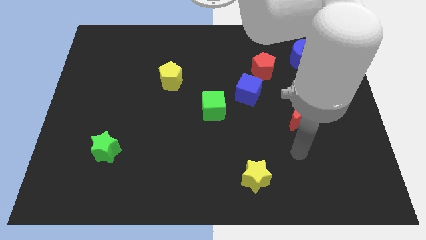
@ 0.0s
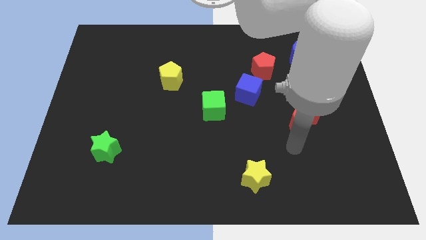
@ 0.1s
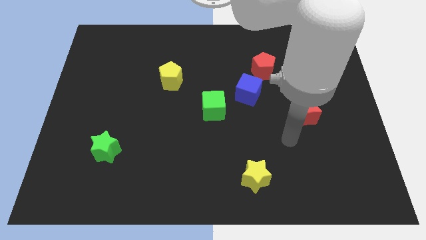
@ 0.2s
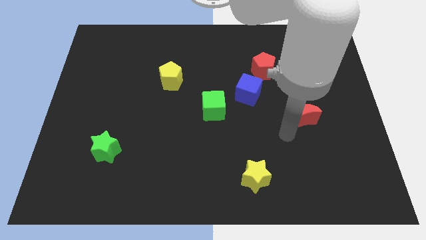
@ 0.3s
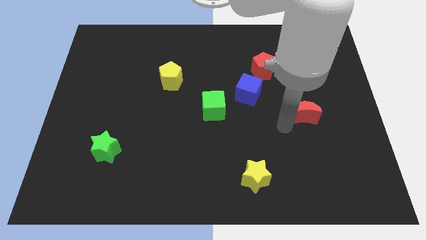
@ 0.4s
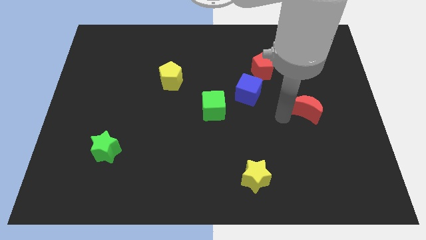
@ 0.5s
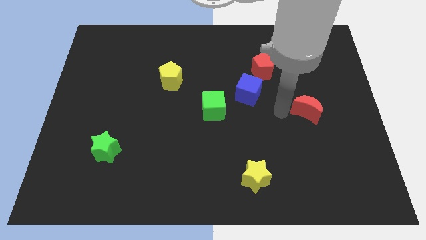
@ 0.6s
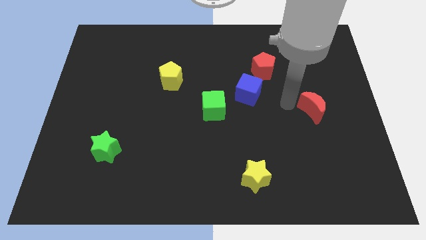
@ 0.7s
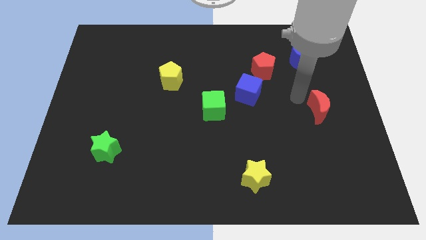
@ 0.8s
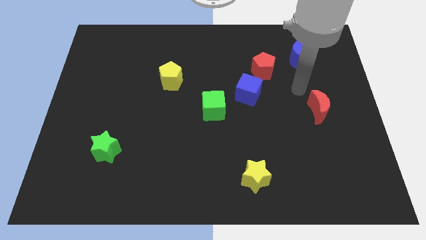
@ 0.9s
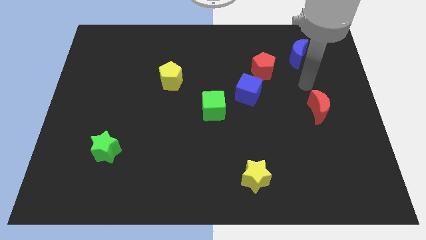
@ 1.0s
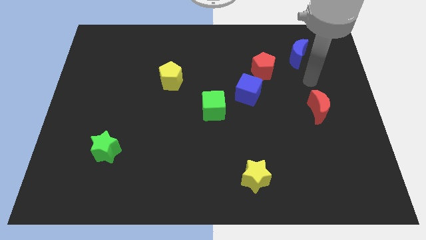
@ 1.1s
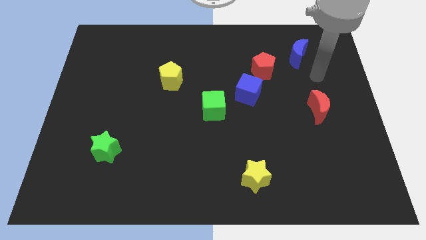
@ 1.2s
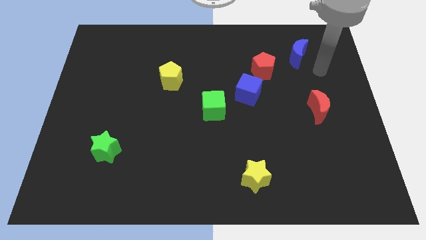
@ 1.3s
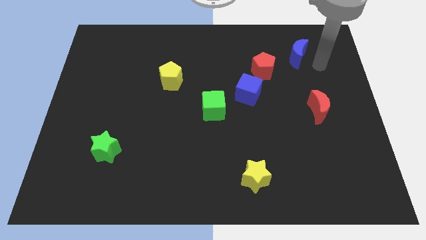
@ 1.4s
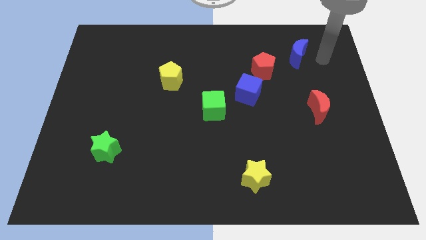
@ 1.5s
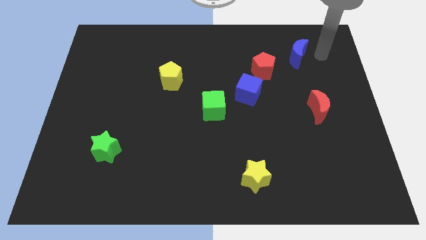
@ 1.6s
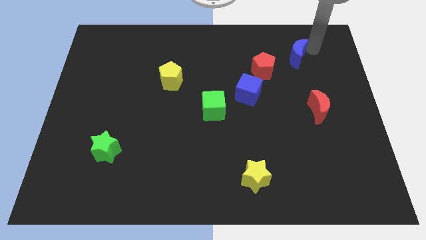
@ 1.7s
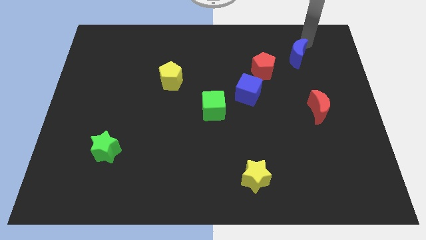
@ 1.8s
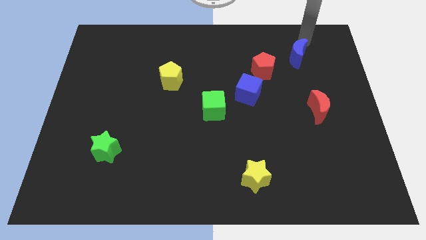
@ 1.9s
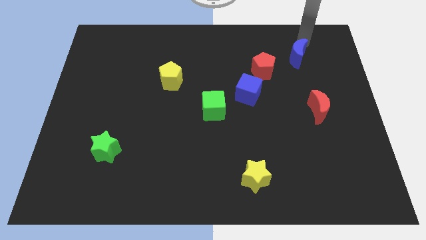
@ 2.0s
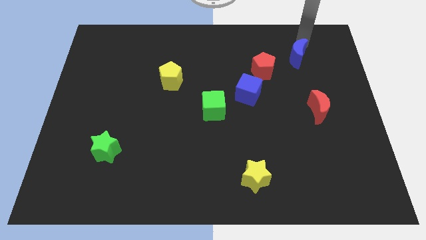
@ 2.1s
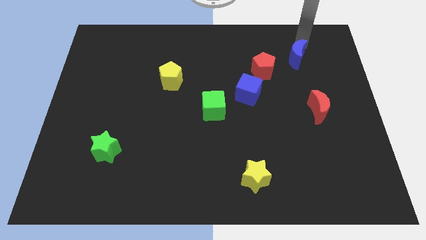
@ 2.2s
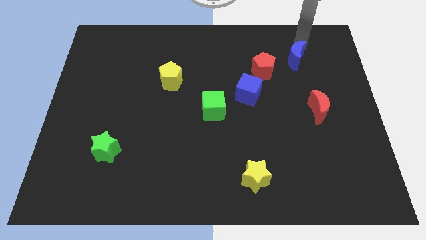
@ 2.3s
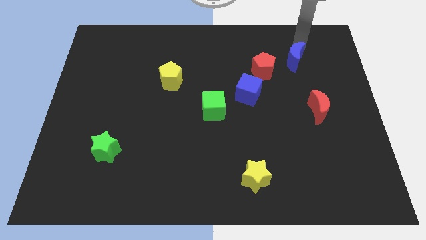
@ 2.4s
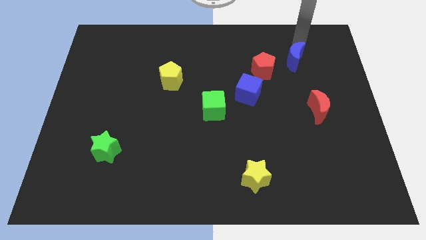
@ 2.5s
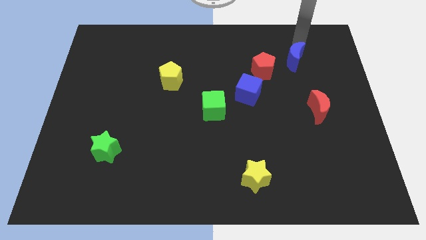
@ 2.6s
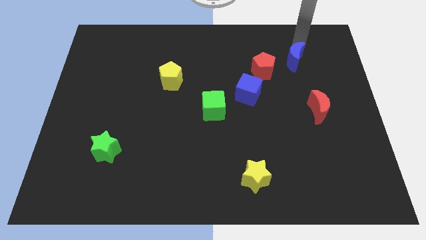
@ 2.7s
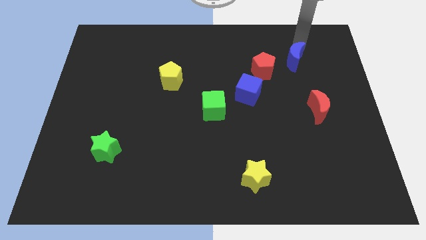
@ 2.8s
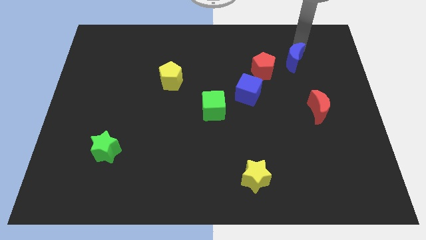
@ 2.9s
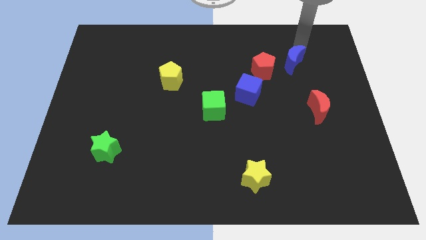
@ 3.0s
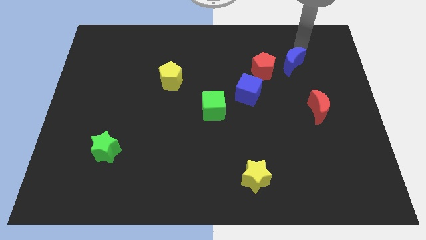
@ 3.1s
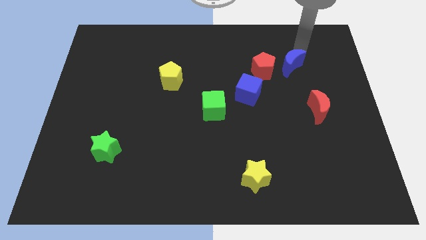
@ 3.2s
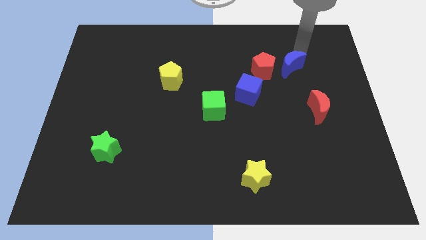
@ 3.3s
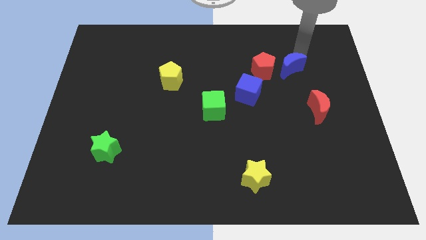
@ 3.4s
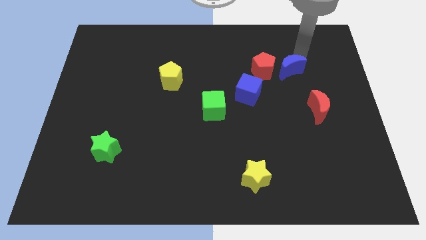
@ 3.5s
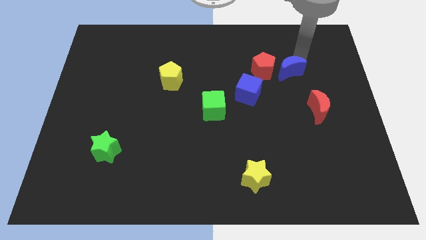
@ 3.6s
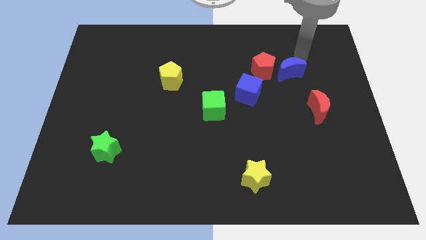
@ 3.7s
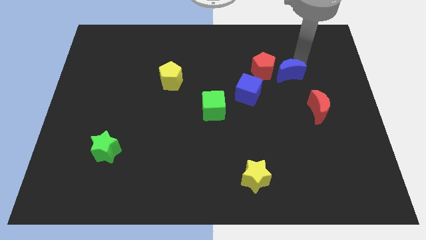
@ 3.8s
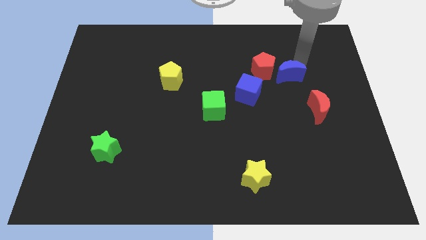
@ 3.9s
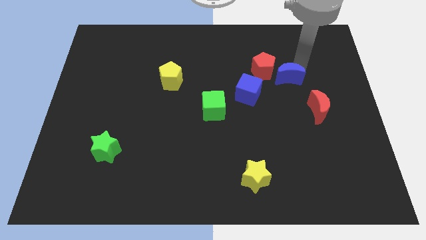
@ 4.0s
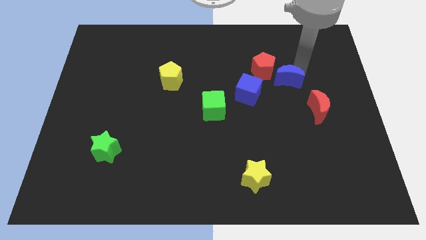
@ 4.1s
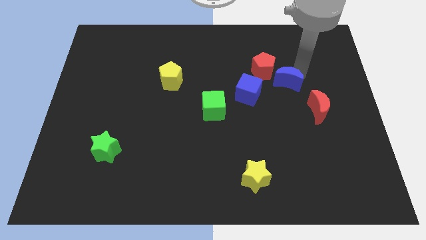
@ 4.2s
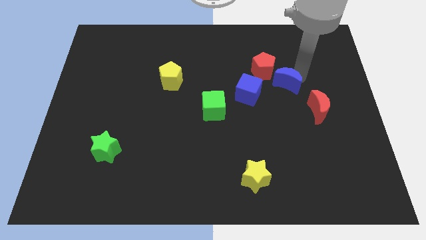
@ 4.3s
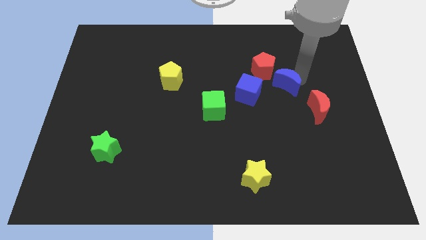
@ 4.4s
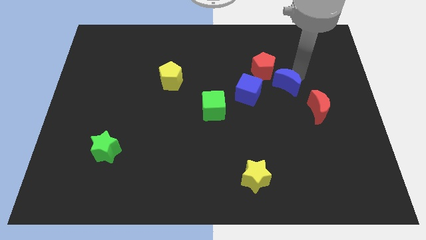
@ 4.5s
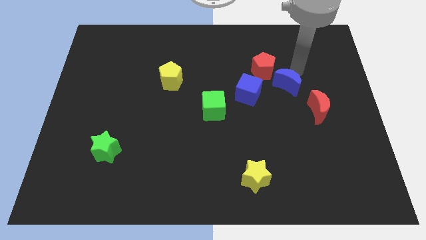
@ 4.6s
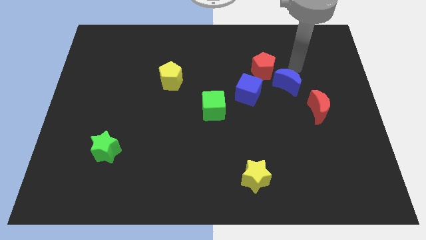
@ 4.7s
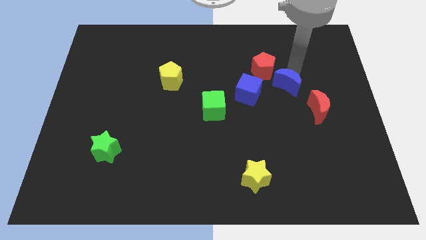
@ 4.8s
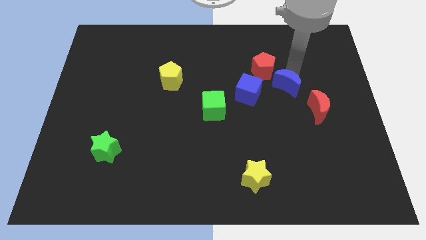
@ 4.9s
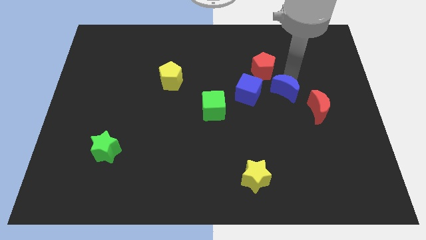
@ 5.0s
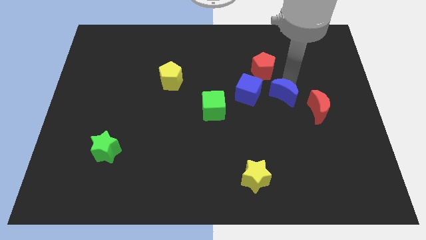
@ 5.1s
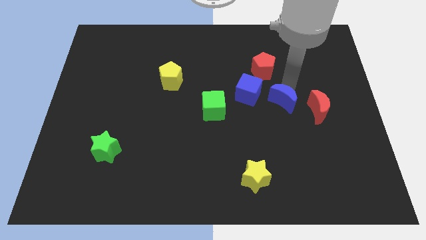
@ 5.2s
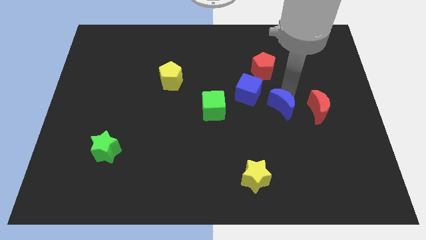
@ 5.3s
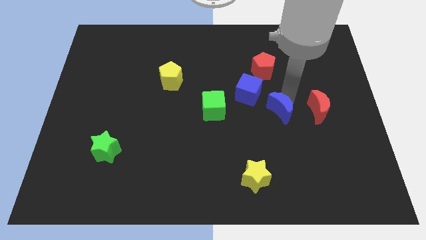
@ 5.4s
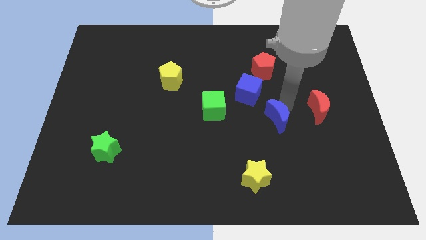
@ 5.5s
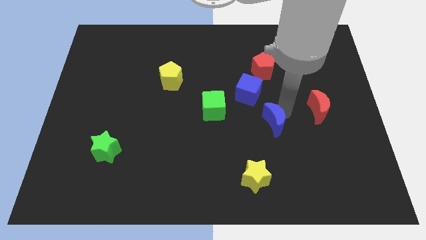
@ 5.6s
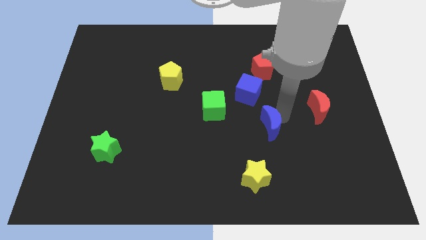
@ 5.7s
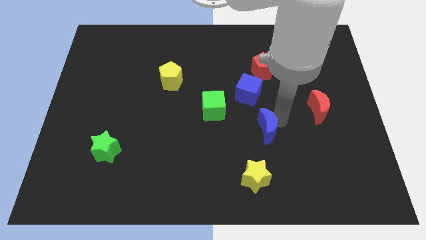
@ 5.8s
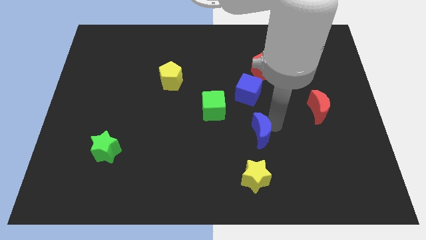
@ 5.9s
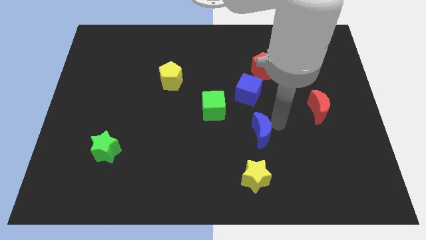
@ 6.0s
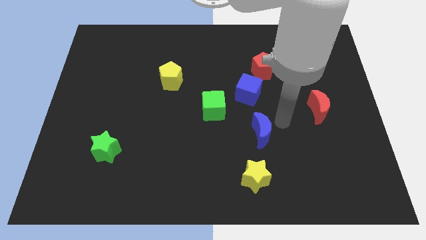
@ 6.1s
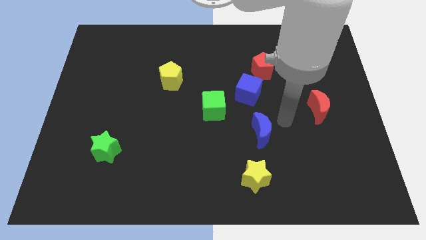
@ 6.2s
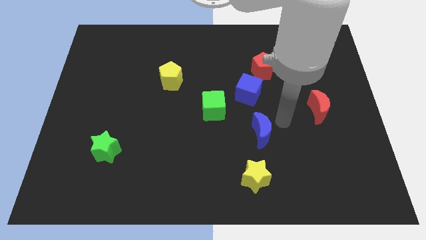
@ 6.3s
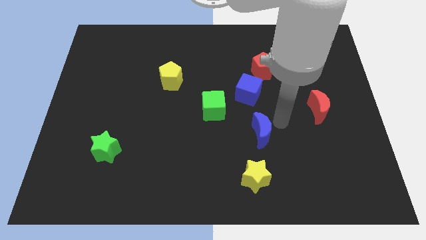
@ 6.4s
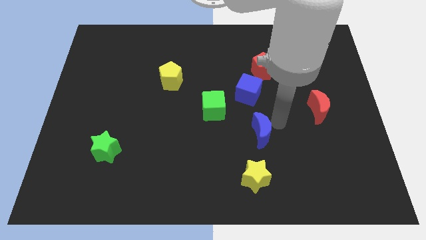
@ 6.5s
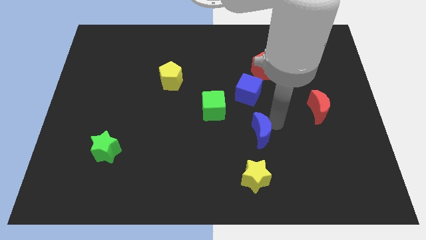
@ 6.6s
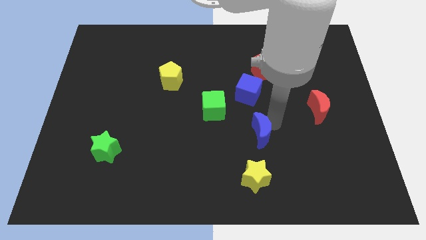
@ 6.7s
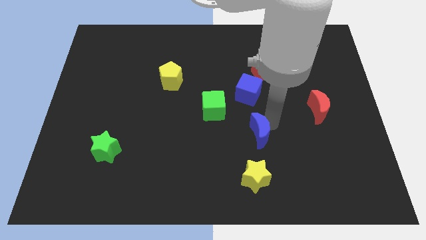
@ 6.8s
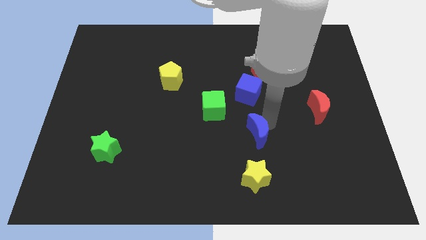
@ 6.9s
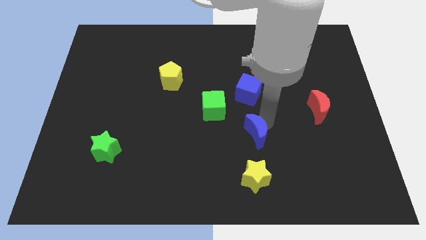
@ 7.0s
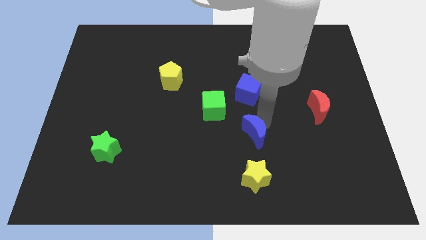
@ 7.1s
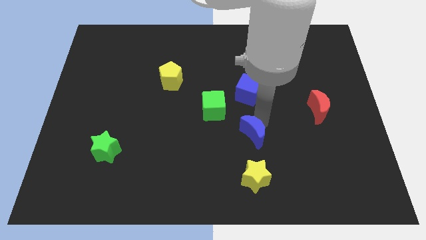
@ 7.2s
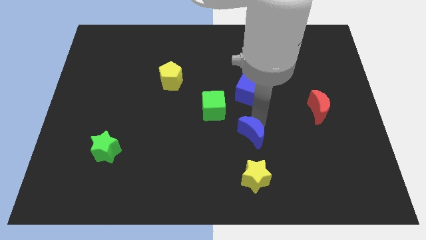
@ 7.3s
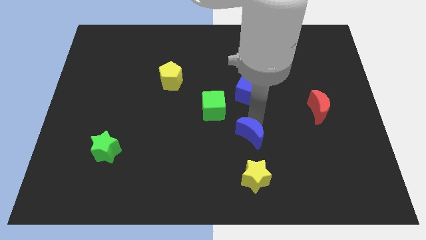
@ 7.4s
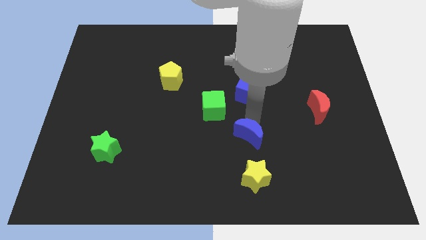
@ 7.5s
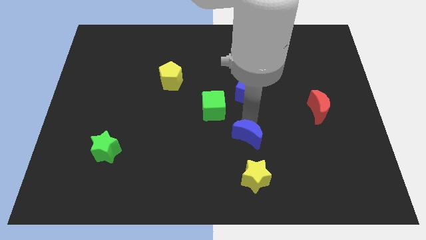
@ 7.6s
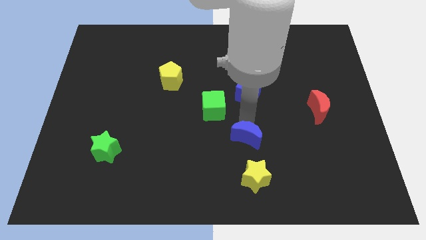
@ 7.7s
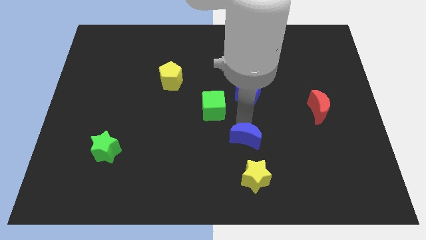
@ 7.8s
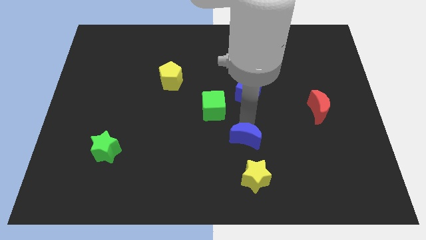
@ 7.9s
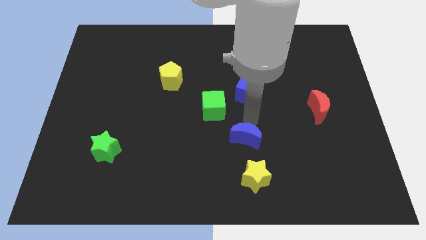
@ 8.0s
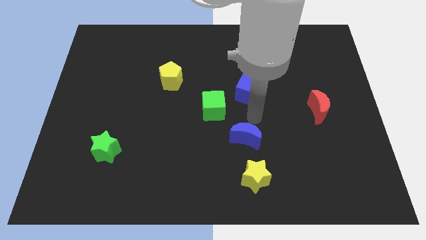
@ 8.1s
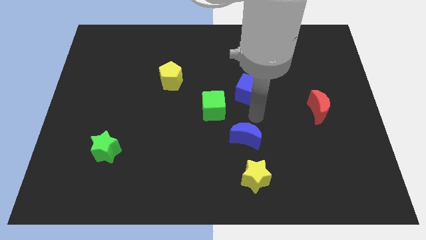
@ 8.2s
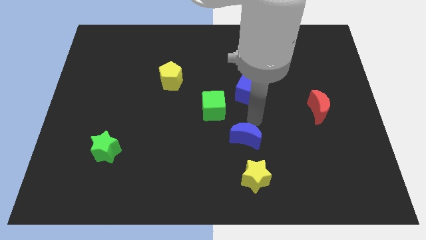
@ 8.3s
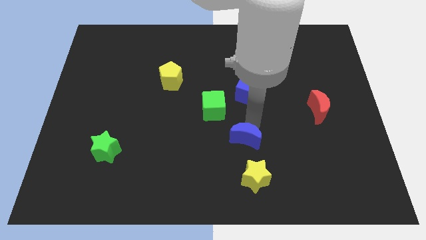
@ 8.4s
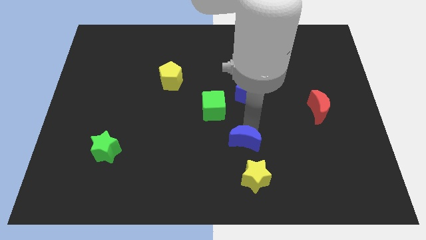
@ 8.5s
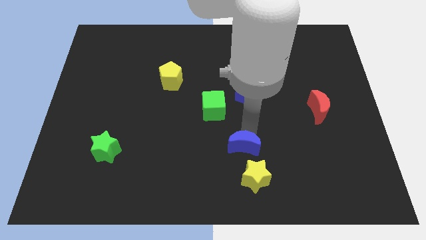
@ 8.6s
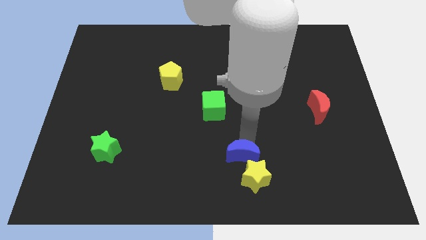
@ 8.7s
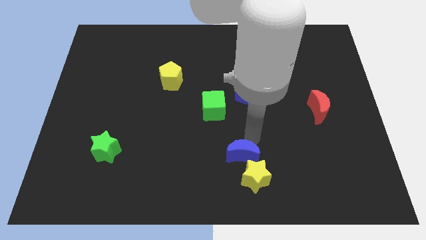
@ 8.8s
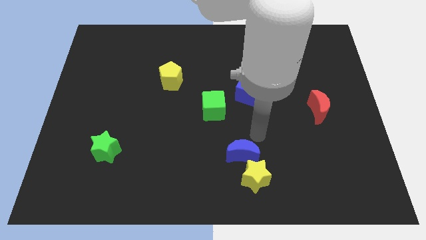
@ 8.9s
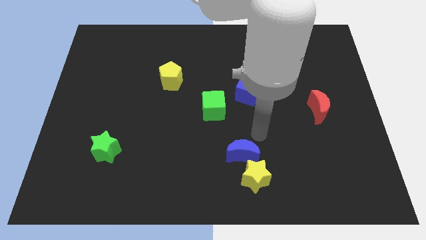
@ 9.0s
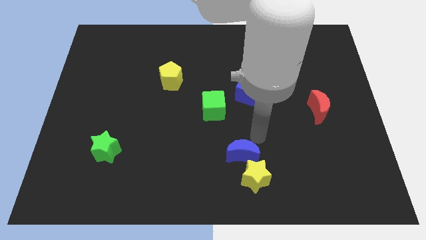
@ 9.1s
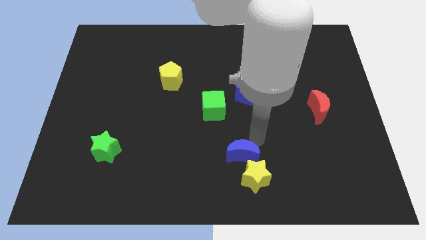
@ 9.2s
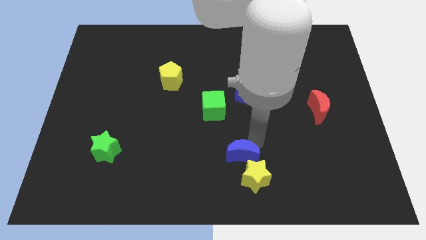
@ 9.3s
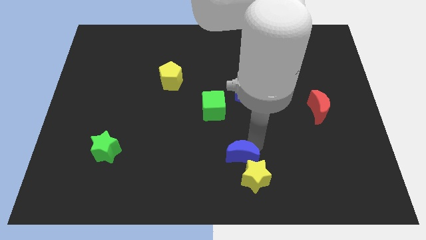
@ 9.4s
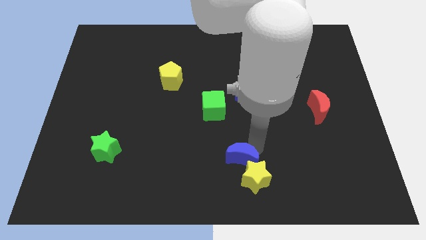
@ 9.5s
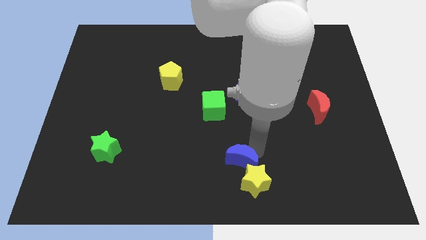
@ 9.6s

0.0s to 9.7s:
move the blue moon to the bottom side
